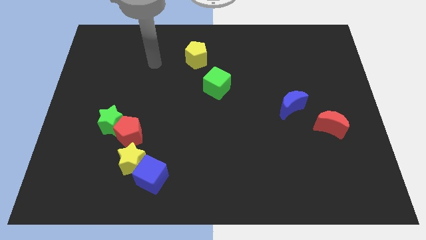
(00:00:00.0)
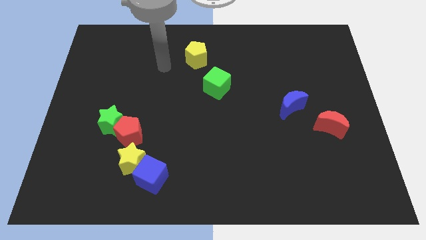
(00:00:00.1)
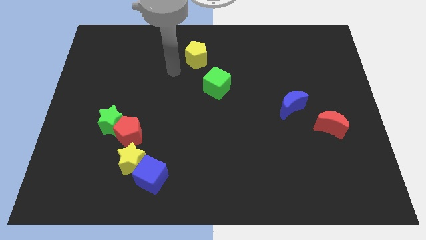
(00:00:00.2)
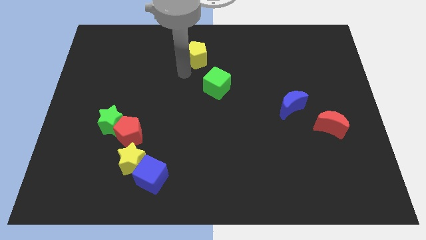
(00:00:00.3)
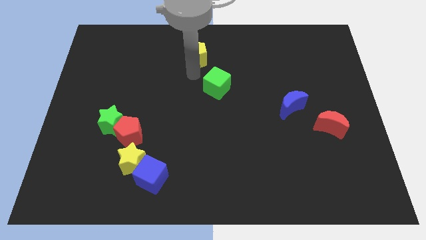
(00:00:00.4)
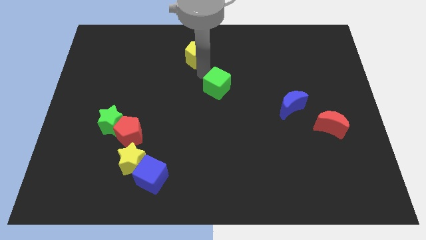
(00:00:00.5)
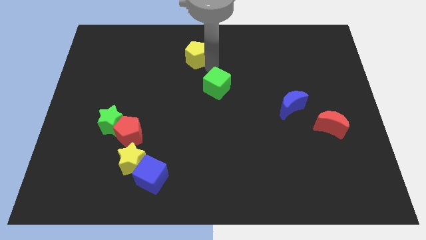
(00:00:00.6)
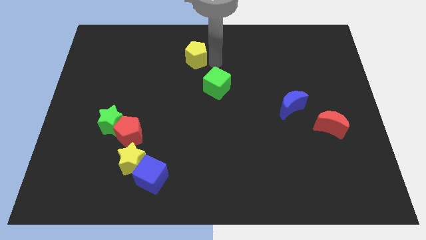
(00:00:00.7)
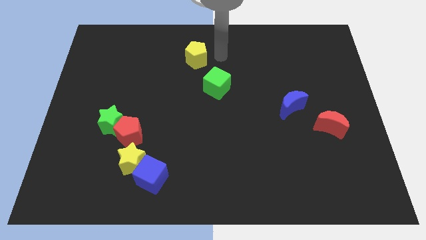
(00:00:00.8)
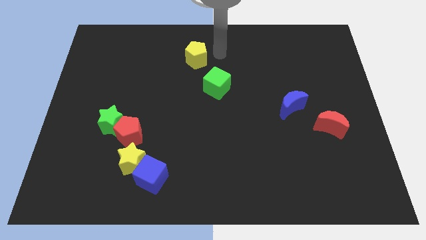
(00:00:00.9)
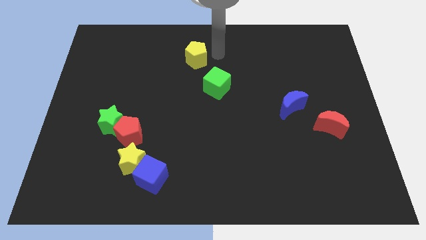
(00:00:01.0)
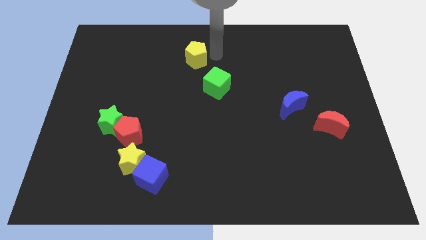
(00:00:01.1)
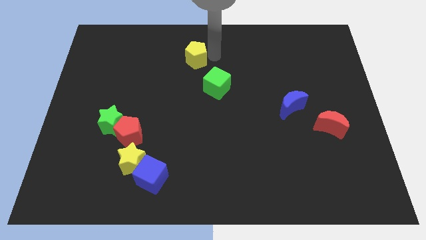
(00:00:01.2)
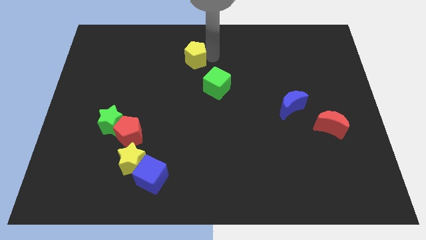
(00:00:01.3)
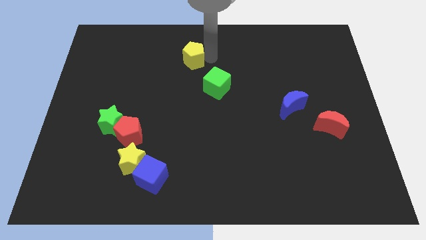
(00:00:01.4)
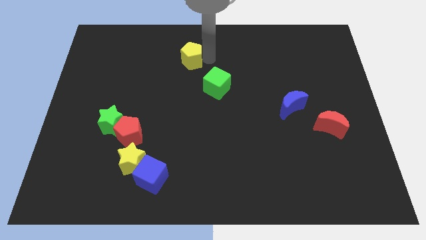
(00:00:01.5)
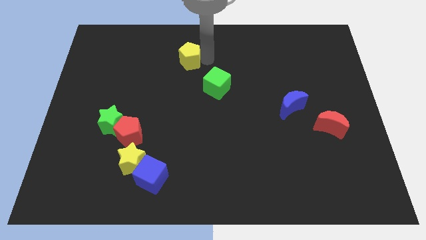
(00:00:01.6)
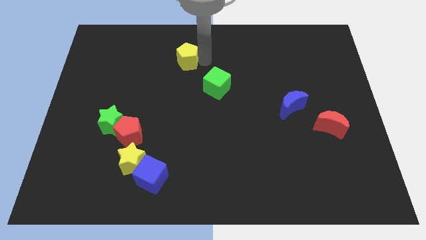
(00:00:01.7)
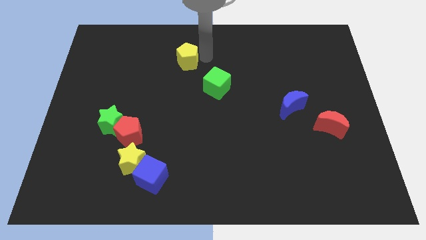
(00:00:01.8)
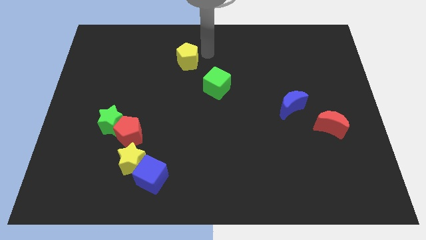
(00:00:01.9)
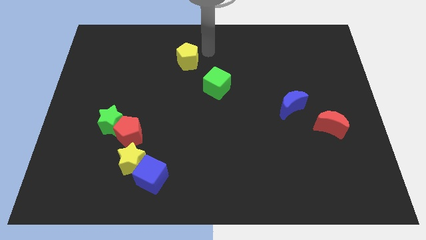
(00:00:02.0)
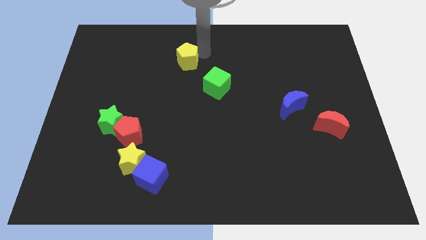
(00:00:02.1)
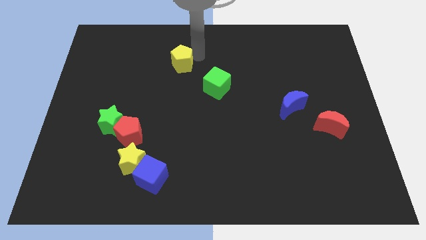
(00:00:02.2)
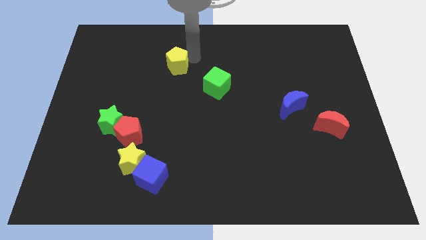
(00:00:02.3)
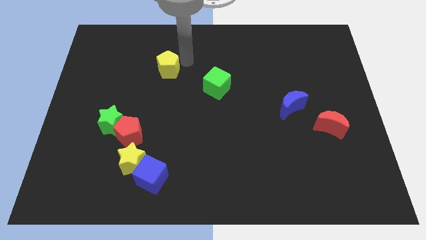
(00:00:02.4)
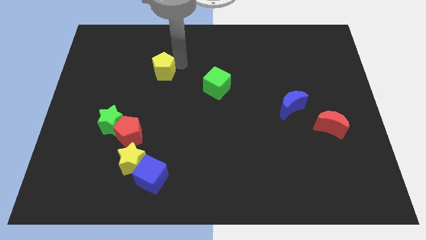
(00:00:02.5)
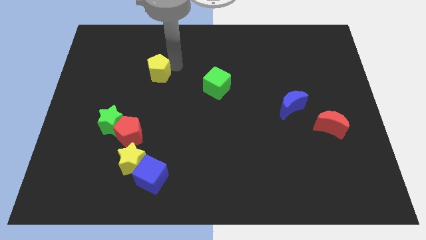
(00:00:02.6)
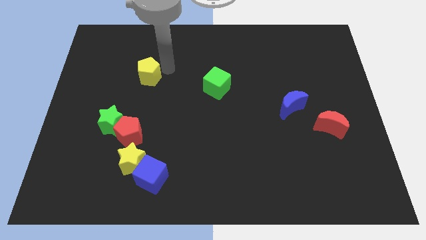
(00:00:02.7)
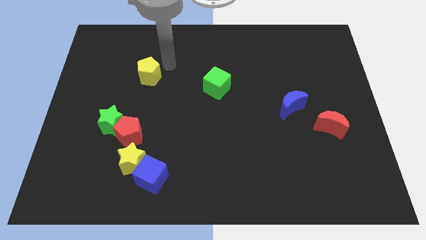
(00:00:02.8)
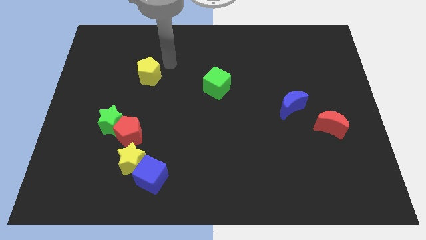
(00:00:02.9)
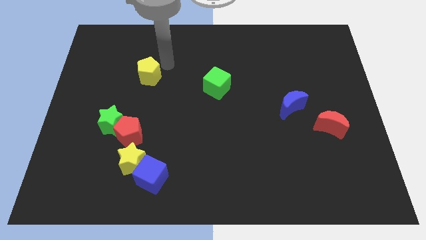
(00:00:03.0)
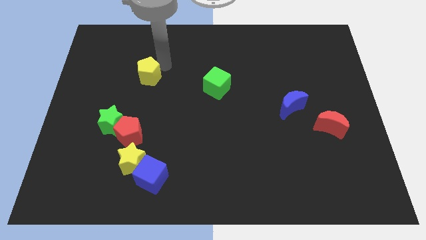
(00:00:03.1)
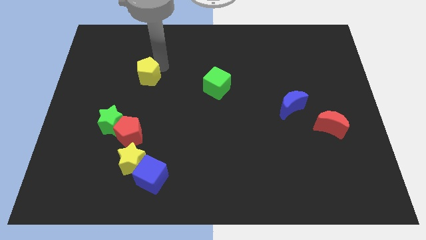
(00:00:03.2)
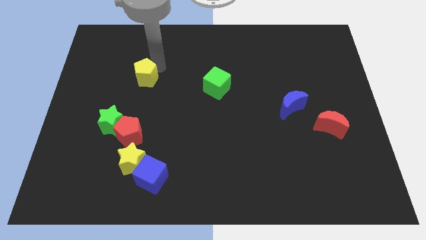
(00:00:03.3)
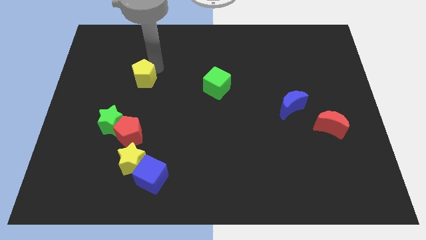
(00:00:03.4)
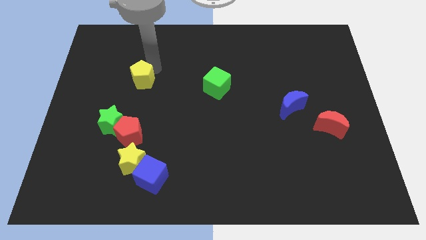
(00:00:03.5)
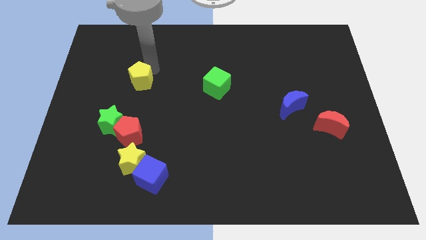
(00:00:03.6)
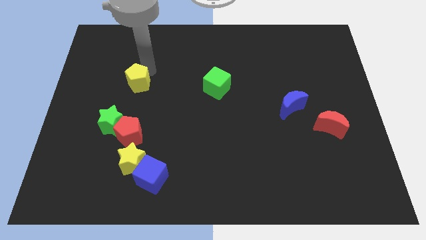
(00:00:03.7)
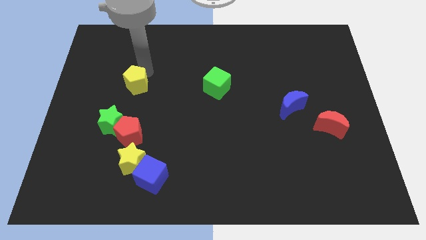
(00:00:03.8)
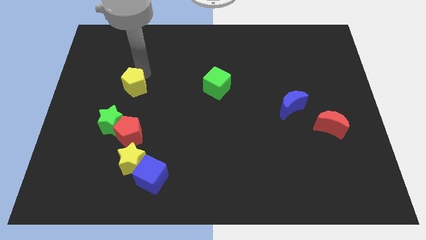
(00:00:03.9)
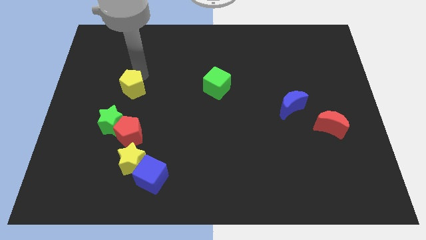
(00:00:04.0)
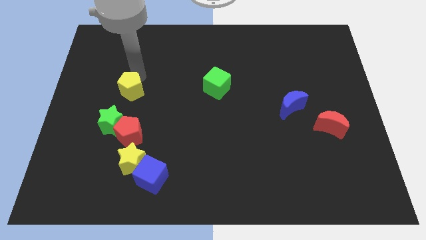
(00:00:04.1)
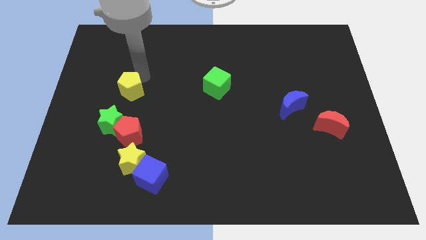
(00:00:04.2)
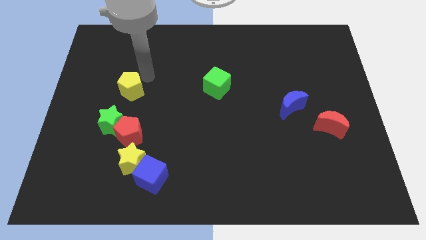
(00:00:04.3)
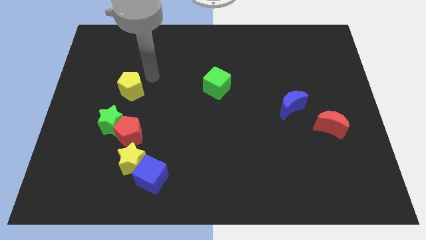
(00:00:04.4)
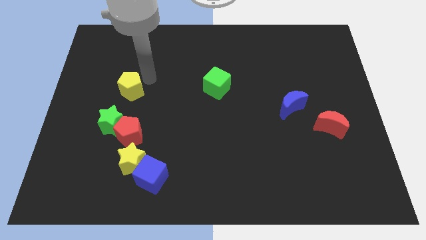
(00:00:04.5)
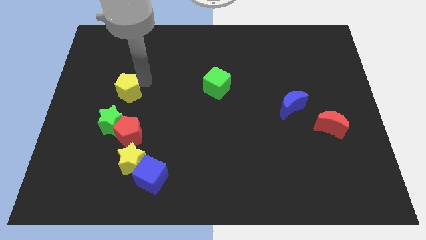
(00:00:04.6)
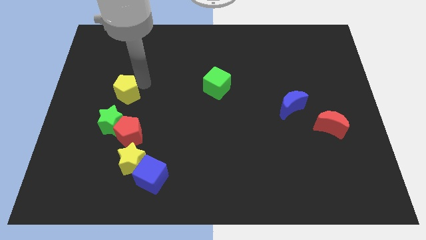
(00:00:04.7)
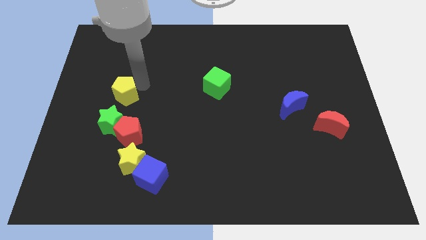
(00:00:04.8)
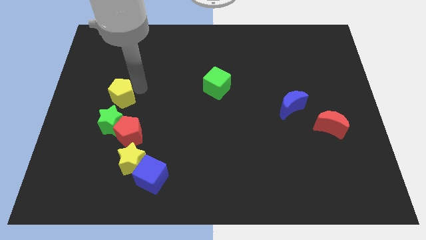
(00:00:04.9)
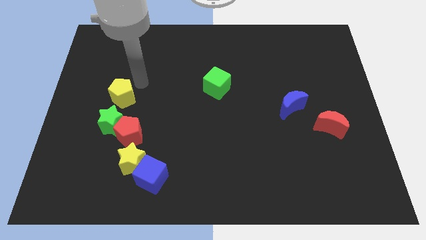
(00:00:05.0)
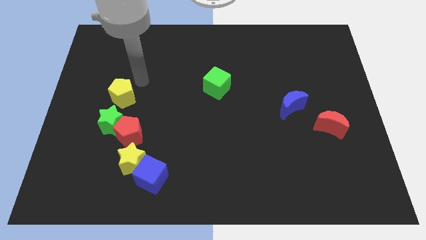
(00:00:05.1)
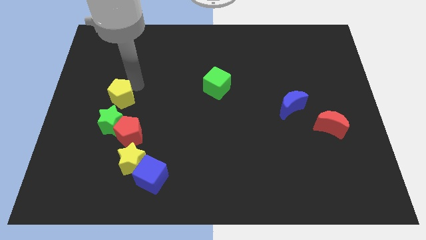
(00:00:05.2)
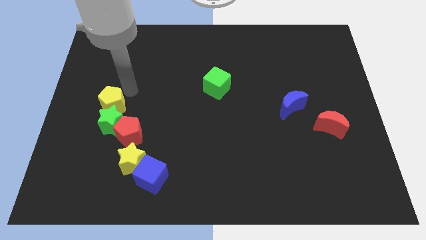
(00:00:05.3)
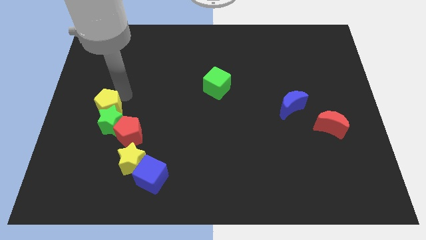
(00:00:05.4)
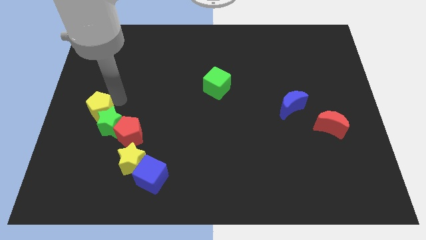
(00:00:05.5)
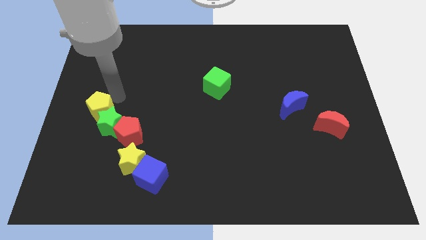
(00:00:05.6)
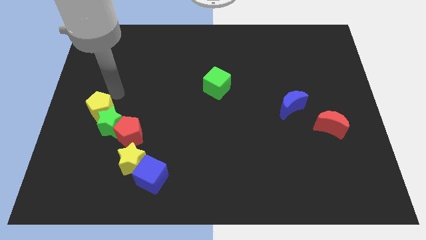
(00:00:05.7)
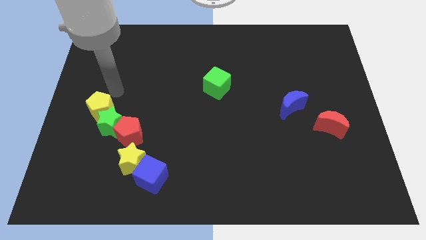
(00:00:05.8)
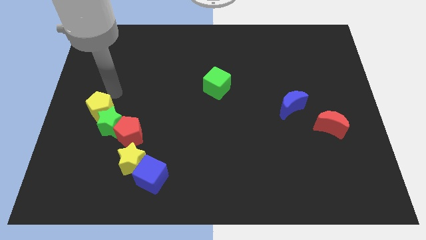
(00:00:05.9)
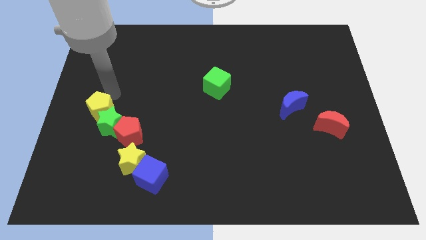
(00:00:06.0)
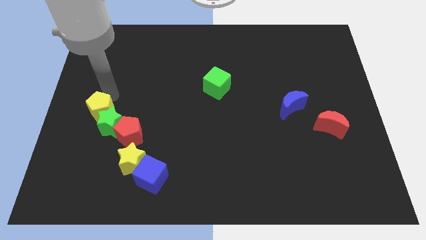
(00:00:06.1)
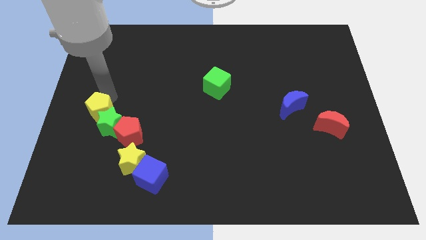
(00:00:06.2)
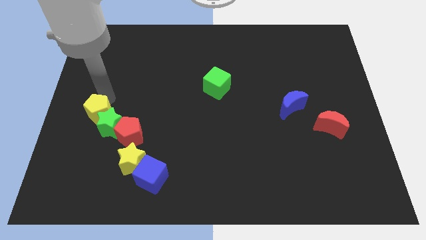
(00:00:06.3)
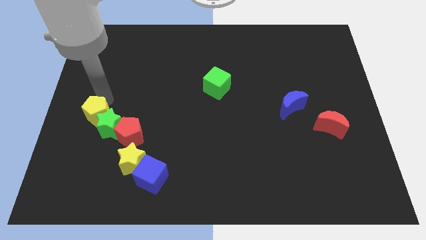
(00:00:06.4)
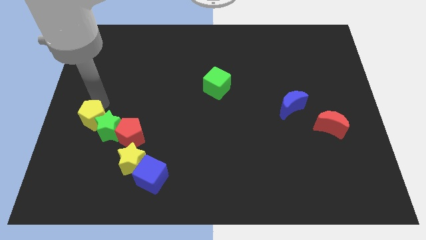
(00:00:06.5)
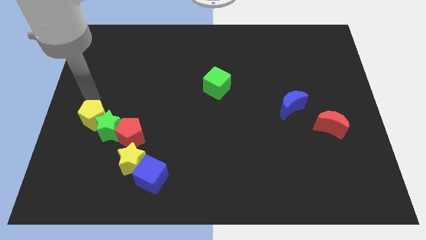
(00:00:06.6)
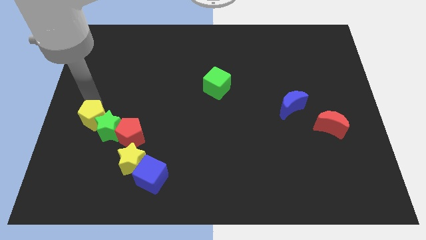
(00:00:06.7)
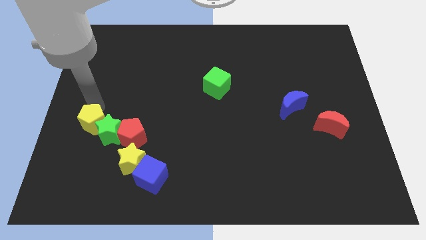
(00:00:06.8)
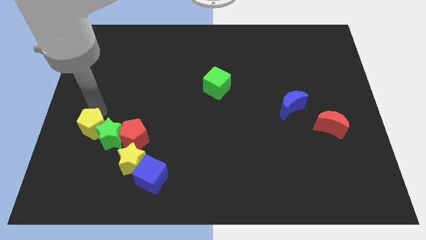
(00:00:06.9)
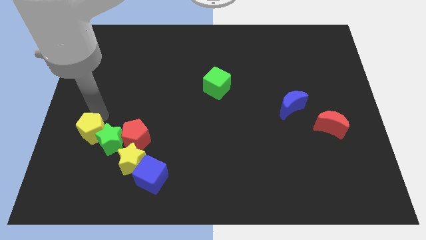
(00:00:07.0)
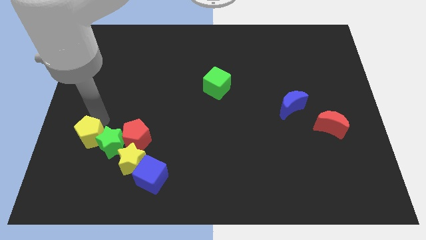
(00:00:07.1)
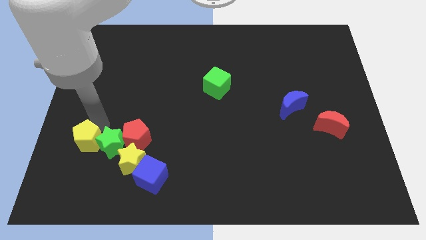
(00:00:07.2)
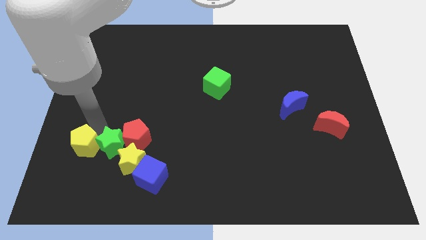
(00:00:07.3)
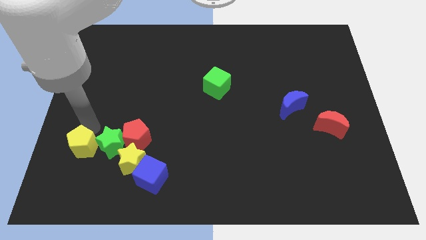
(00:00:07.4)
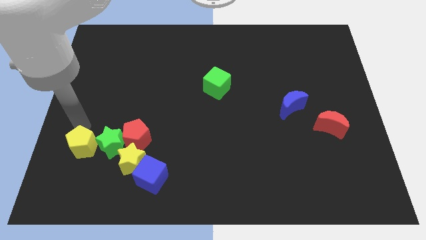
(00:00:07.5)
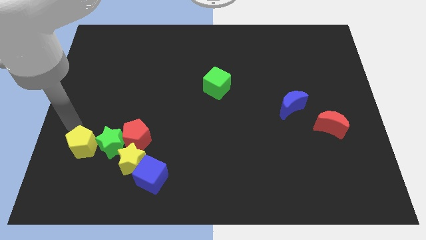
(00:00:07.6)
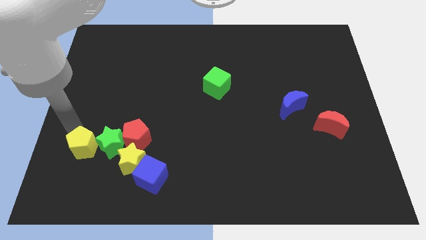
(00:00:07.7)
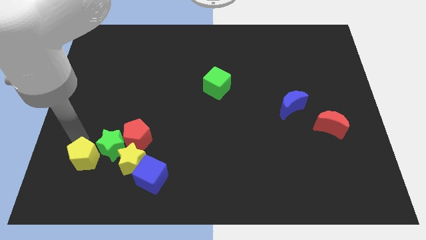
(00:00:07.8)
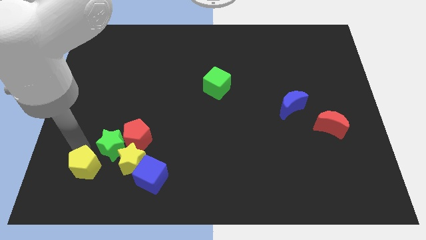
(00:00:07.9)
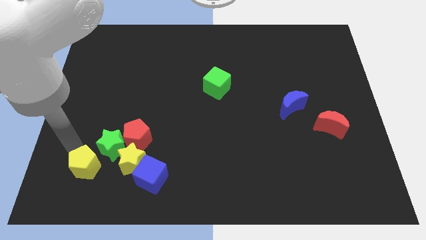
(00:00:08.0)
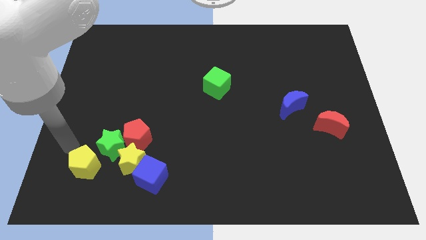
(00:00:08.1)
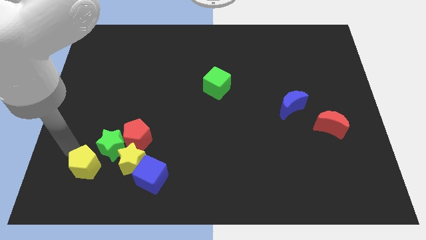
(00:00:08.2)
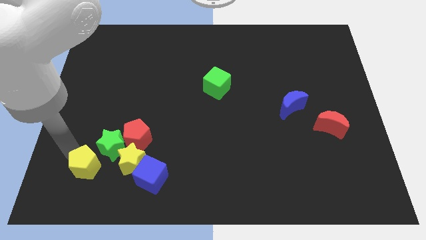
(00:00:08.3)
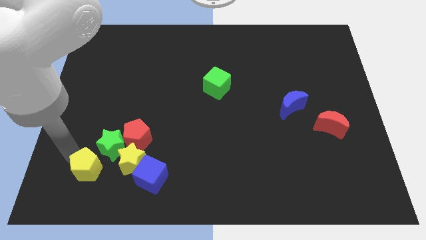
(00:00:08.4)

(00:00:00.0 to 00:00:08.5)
put the yellow pentagon below the green star
